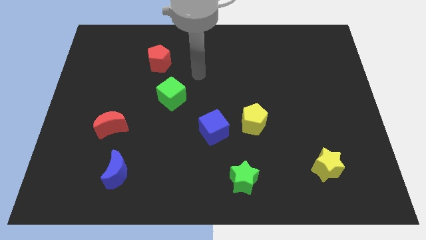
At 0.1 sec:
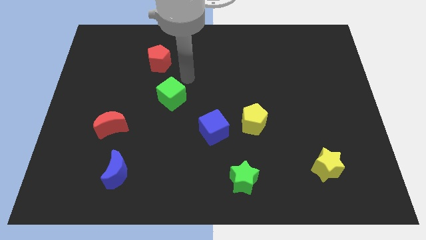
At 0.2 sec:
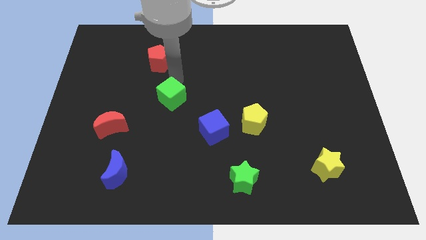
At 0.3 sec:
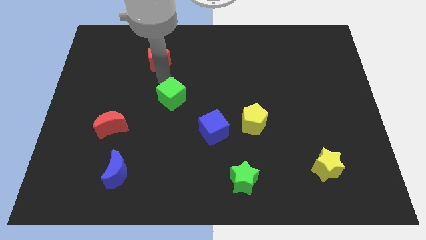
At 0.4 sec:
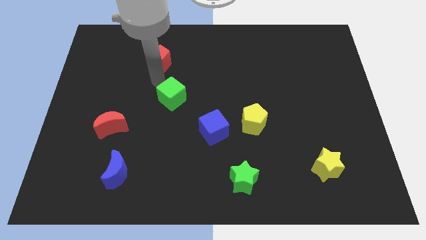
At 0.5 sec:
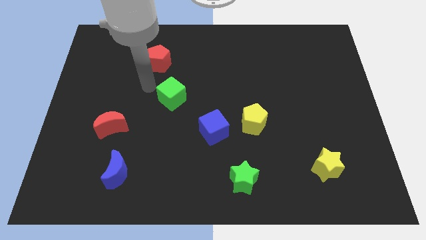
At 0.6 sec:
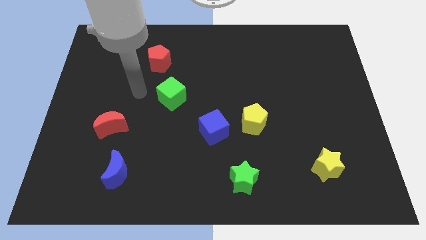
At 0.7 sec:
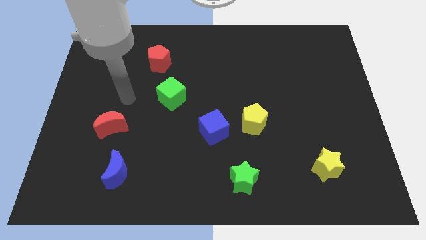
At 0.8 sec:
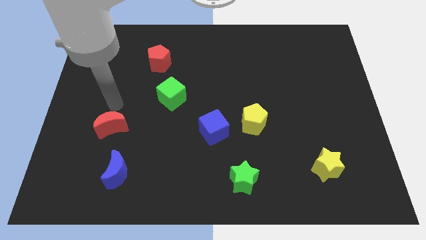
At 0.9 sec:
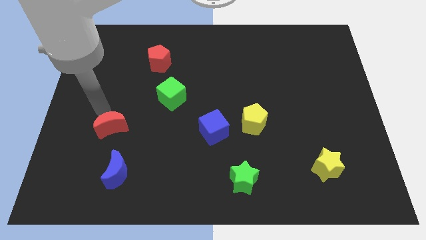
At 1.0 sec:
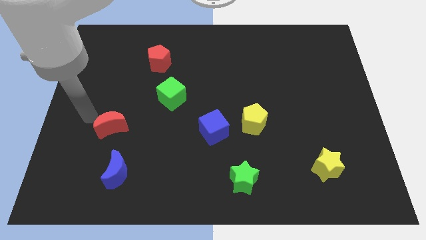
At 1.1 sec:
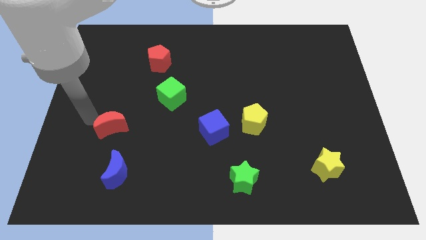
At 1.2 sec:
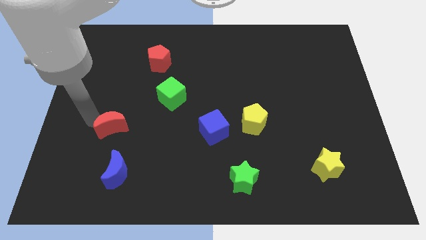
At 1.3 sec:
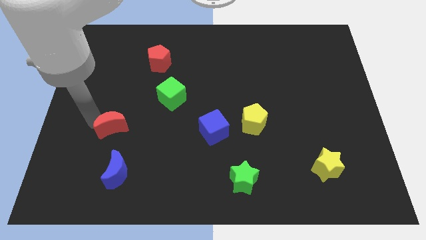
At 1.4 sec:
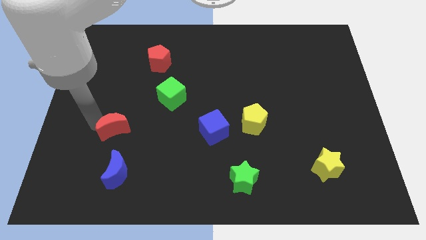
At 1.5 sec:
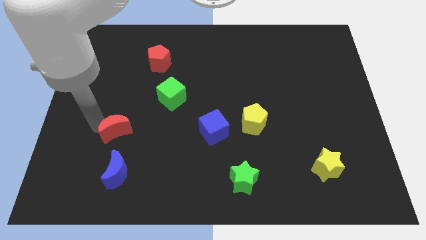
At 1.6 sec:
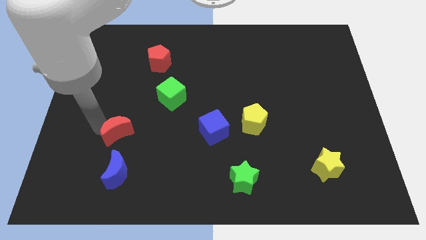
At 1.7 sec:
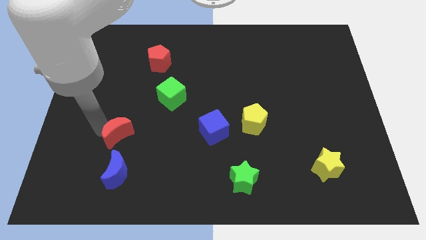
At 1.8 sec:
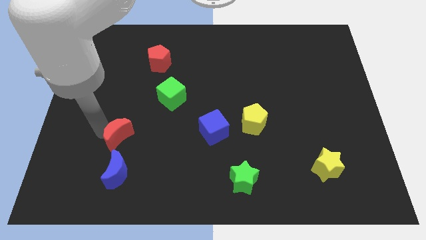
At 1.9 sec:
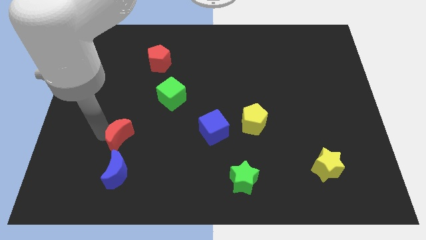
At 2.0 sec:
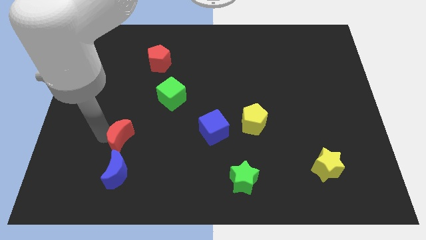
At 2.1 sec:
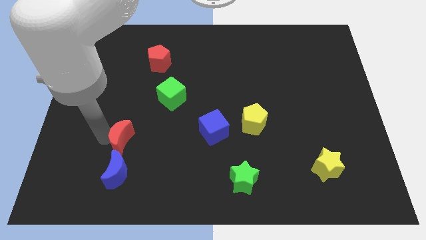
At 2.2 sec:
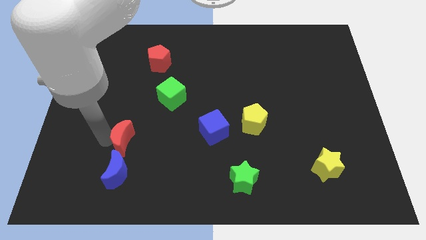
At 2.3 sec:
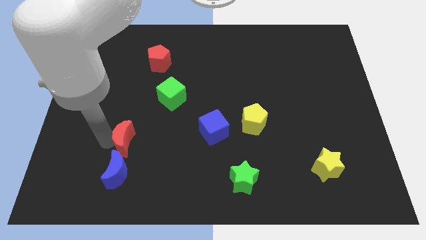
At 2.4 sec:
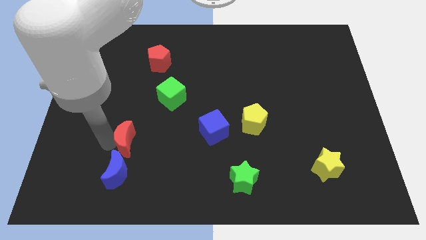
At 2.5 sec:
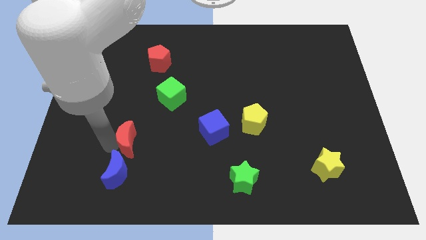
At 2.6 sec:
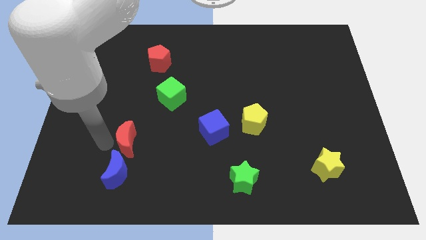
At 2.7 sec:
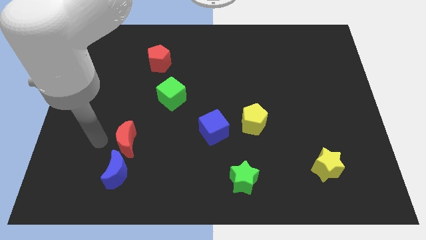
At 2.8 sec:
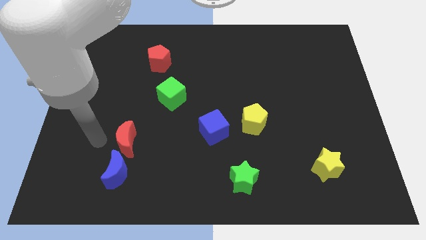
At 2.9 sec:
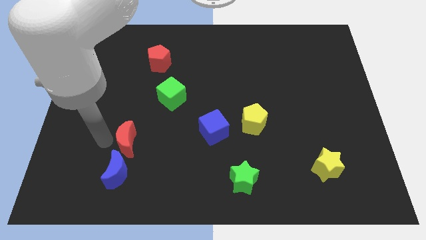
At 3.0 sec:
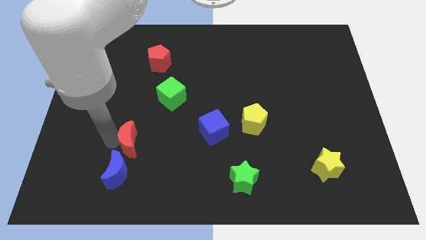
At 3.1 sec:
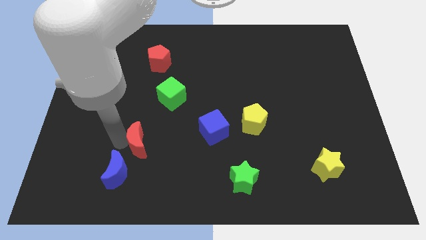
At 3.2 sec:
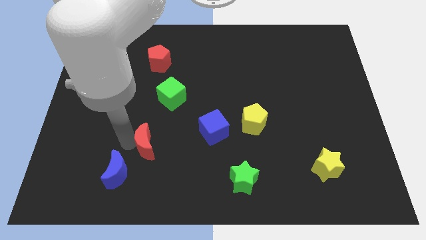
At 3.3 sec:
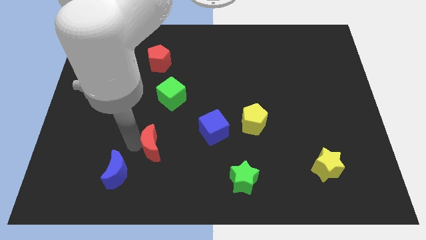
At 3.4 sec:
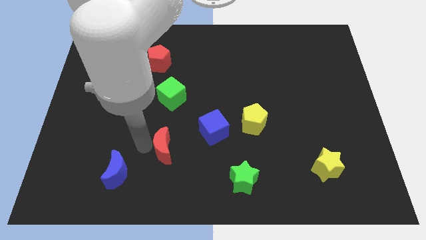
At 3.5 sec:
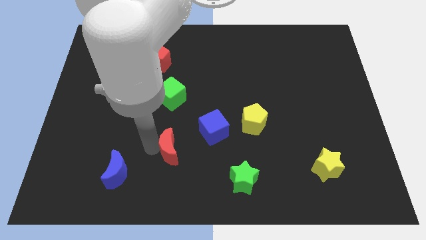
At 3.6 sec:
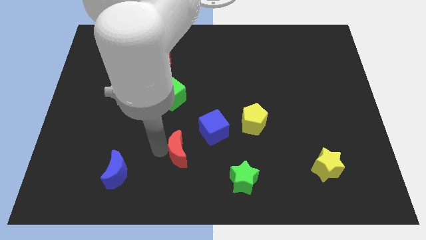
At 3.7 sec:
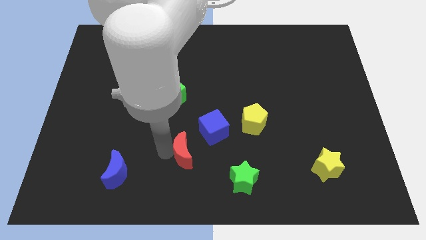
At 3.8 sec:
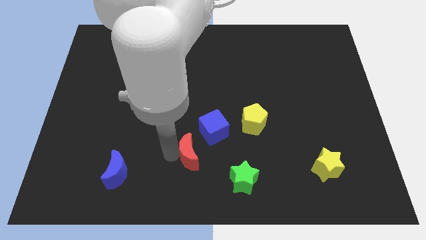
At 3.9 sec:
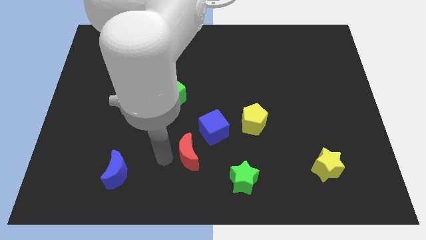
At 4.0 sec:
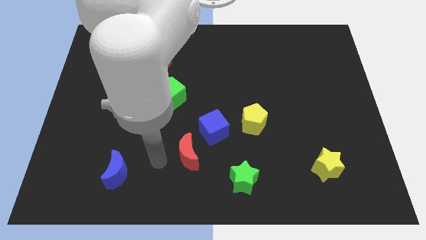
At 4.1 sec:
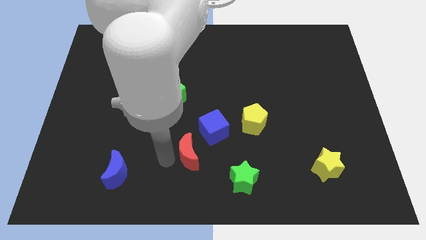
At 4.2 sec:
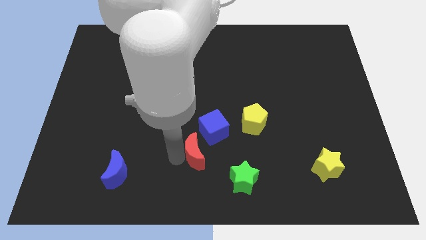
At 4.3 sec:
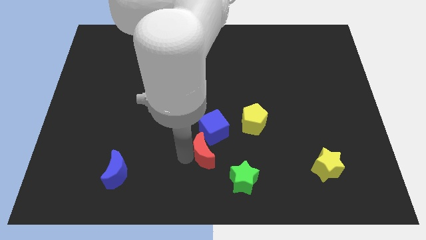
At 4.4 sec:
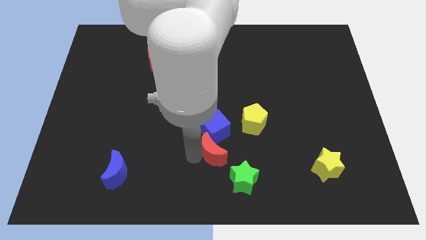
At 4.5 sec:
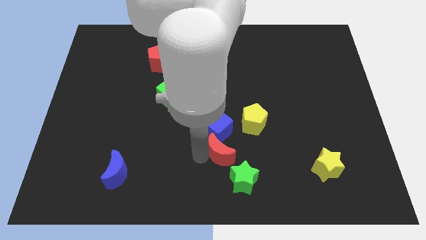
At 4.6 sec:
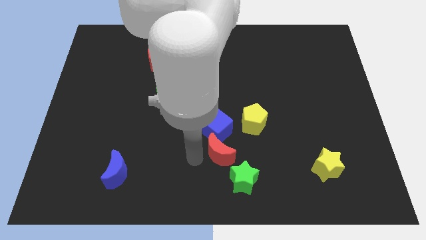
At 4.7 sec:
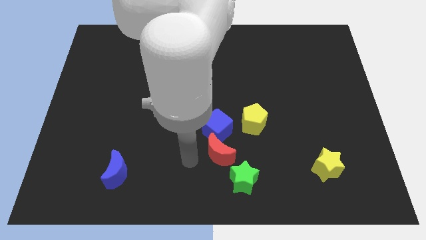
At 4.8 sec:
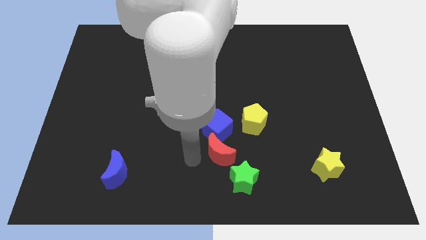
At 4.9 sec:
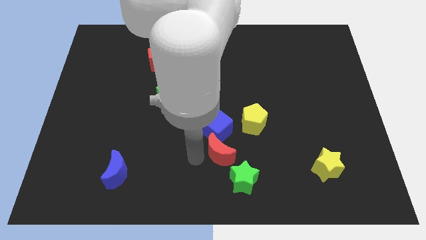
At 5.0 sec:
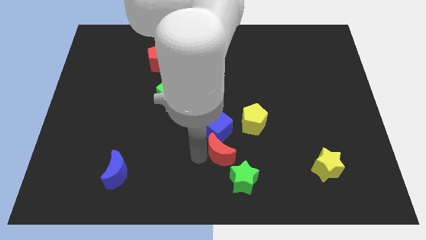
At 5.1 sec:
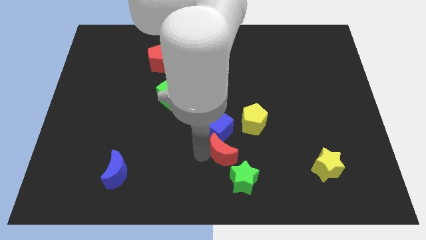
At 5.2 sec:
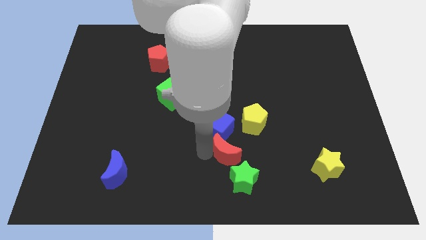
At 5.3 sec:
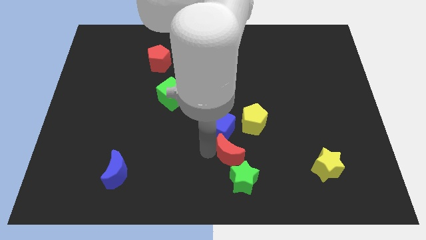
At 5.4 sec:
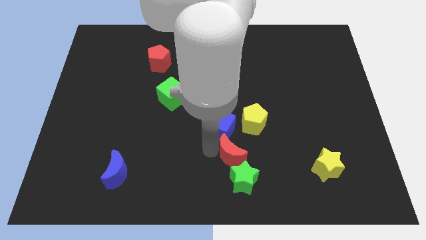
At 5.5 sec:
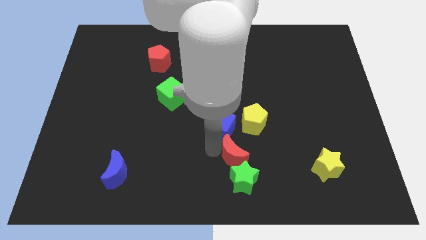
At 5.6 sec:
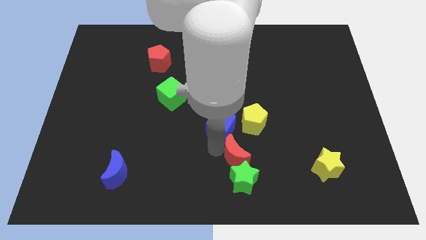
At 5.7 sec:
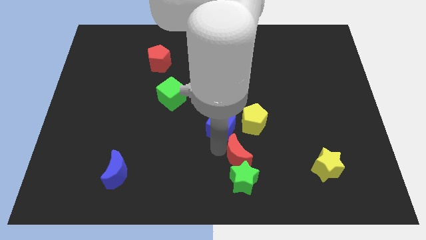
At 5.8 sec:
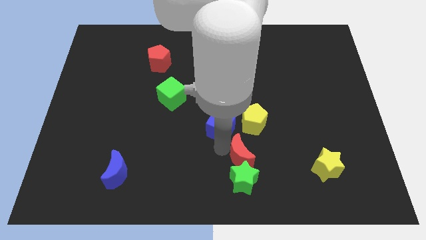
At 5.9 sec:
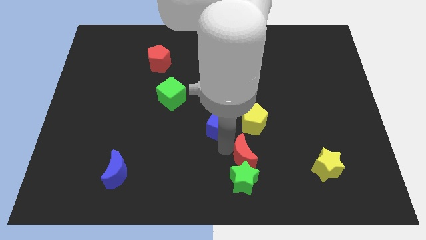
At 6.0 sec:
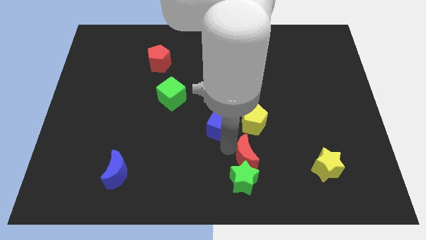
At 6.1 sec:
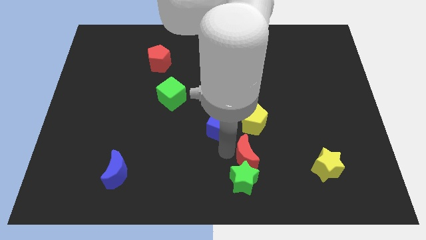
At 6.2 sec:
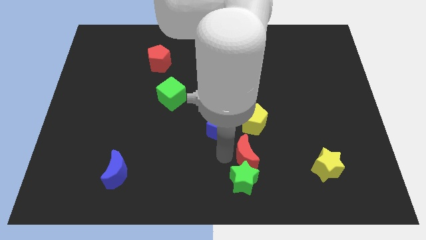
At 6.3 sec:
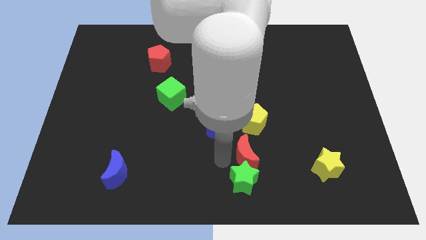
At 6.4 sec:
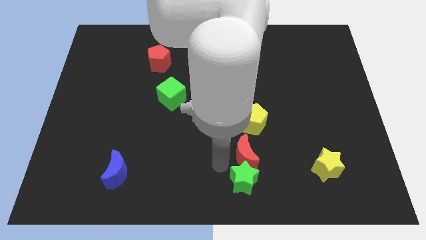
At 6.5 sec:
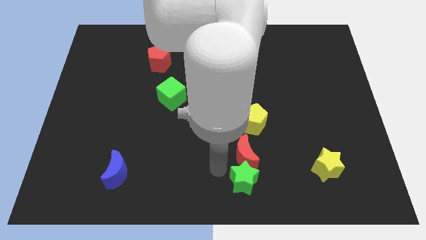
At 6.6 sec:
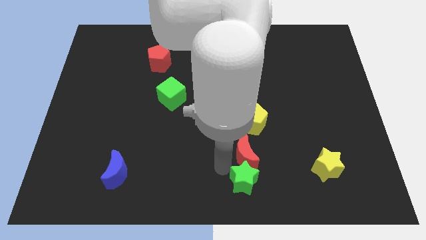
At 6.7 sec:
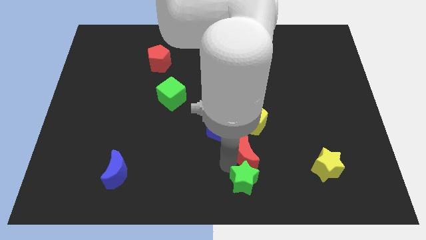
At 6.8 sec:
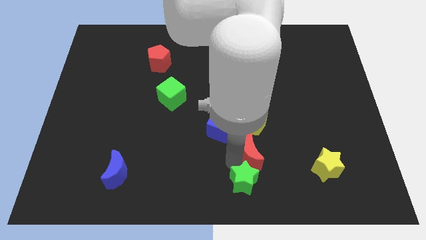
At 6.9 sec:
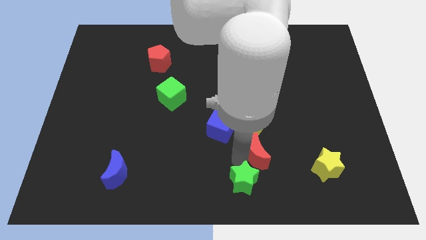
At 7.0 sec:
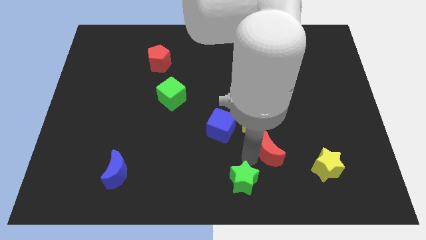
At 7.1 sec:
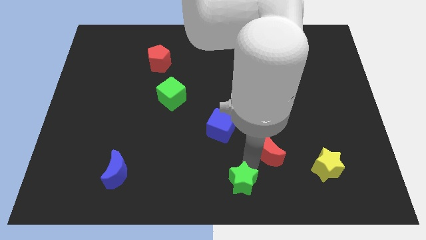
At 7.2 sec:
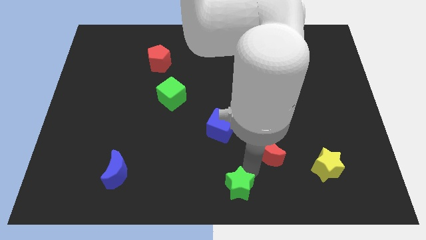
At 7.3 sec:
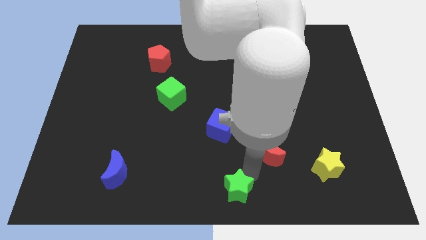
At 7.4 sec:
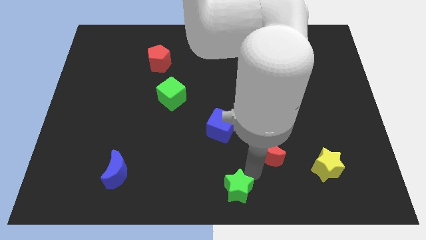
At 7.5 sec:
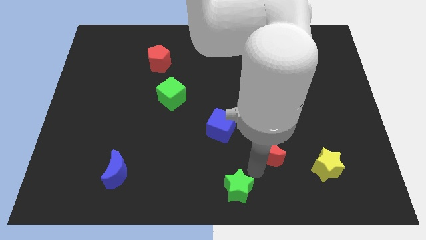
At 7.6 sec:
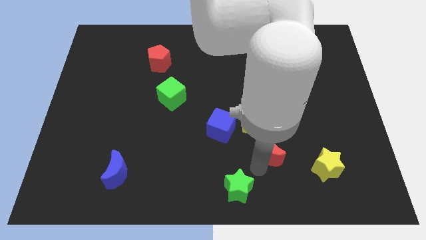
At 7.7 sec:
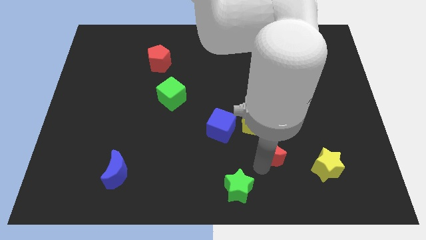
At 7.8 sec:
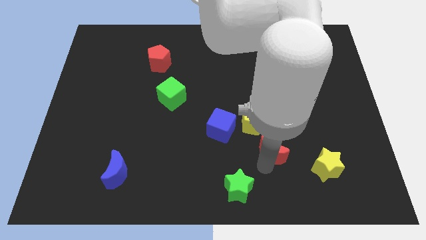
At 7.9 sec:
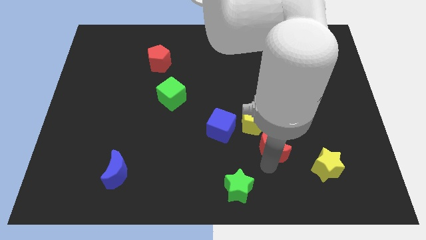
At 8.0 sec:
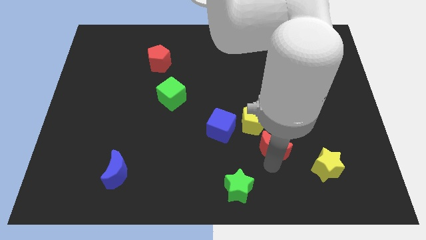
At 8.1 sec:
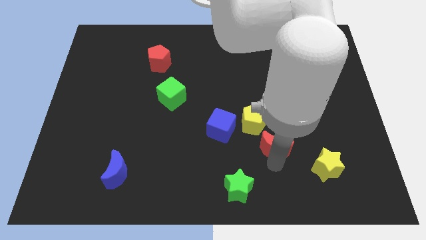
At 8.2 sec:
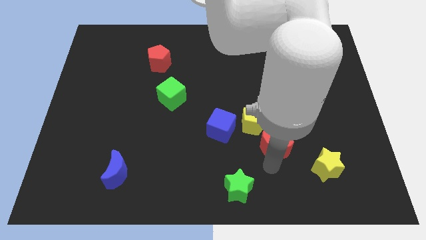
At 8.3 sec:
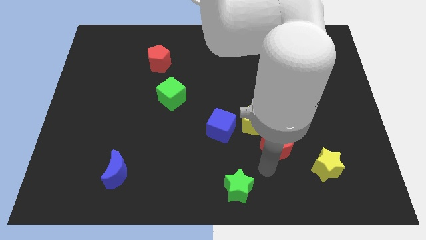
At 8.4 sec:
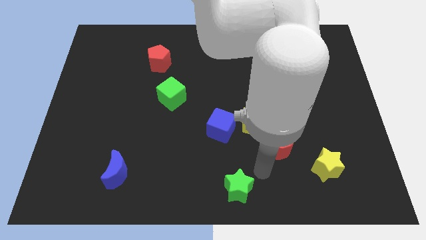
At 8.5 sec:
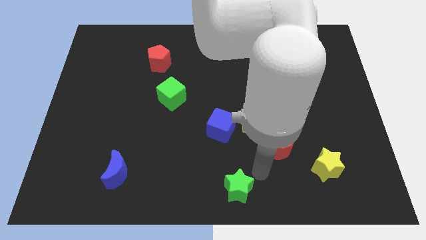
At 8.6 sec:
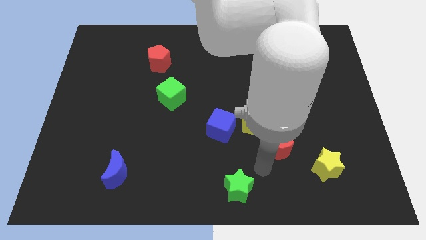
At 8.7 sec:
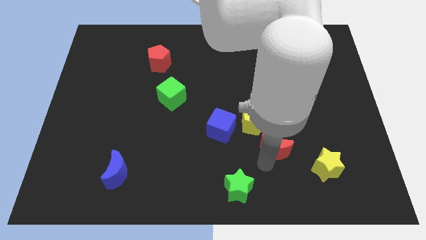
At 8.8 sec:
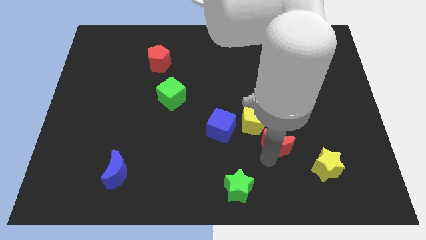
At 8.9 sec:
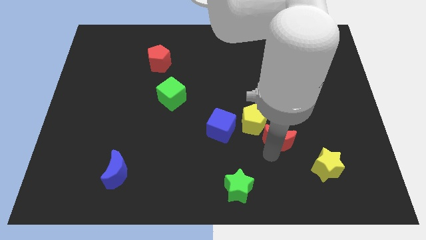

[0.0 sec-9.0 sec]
push the red moon to the right side of the yellow pentagon
